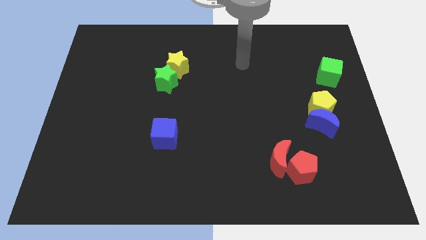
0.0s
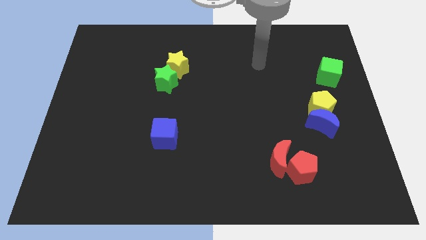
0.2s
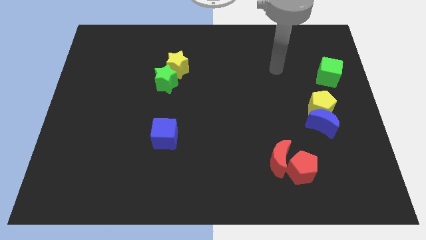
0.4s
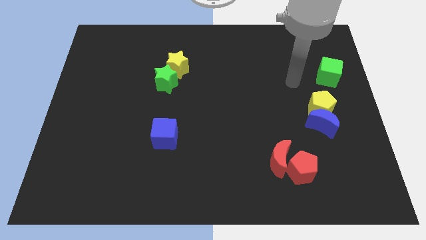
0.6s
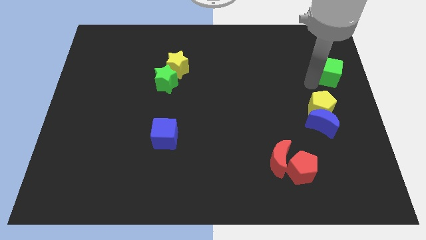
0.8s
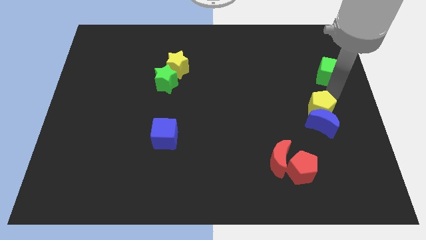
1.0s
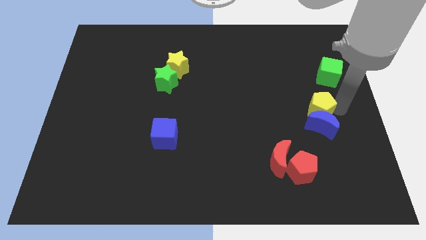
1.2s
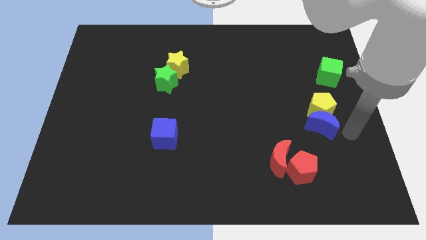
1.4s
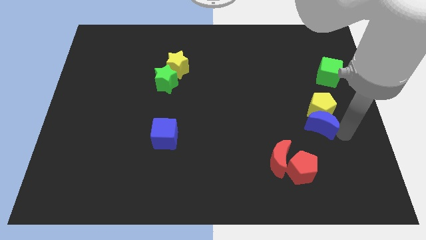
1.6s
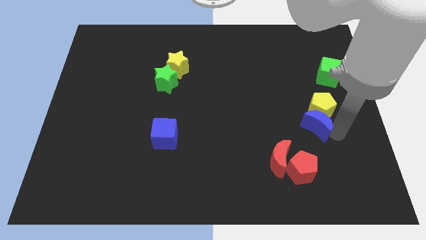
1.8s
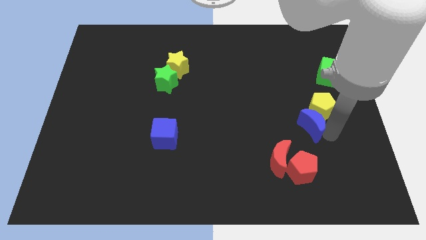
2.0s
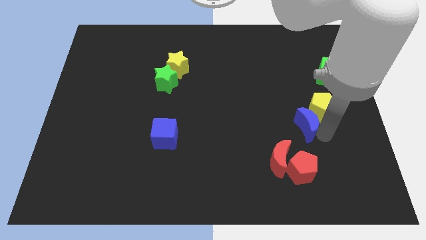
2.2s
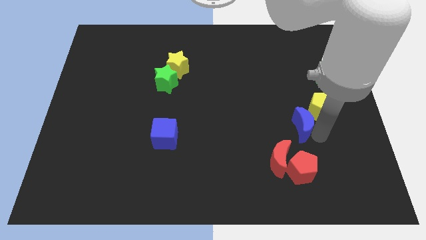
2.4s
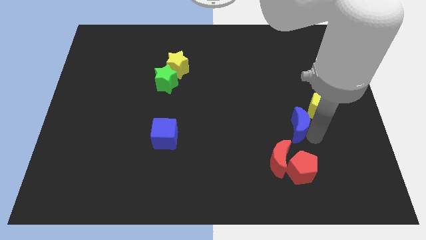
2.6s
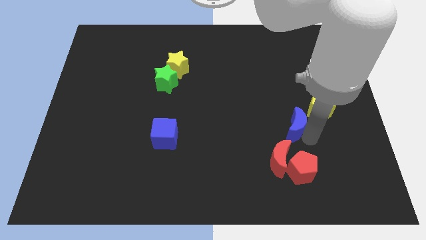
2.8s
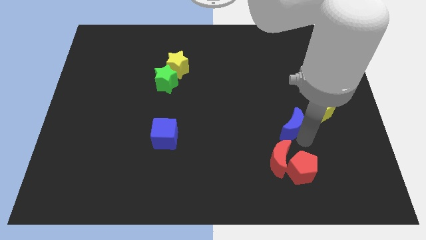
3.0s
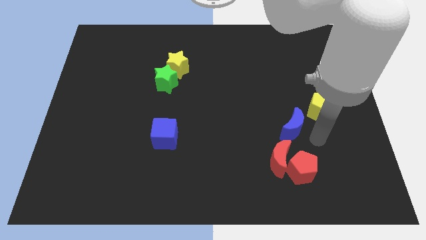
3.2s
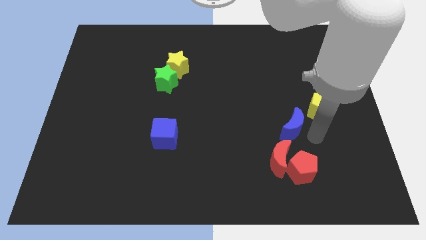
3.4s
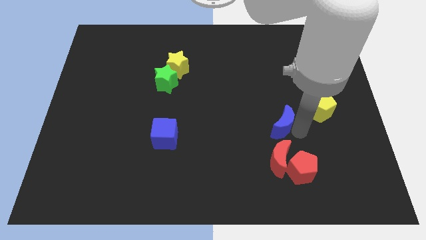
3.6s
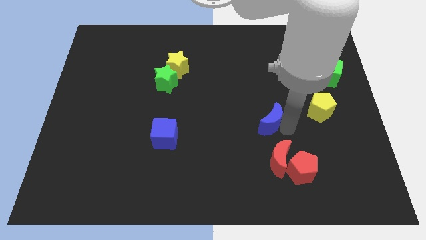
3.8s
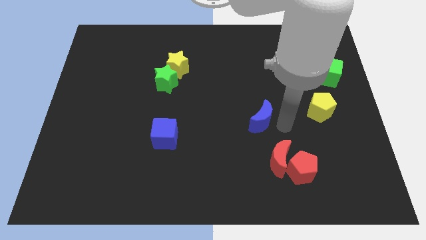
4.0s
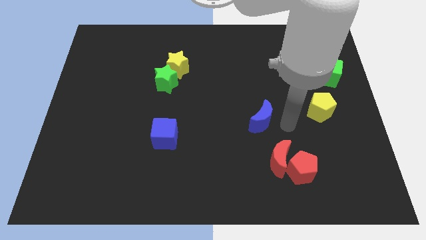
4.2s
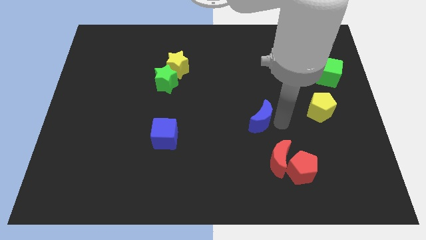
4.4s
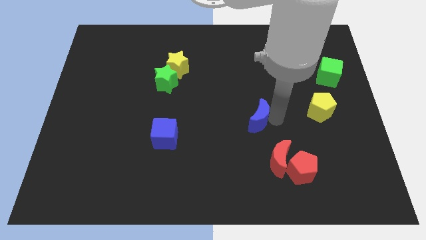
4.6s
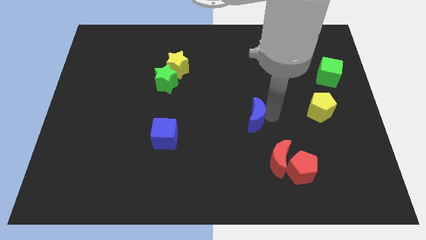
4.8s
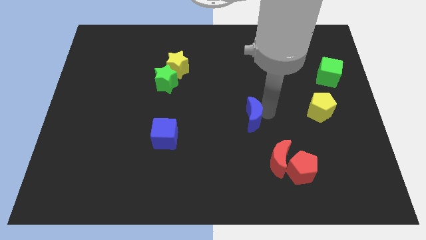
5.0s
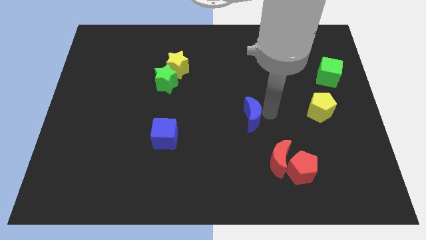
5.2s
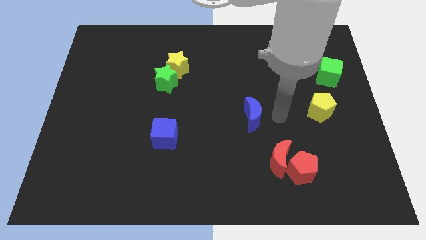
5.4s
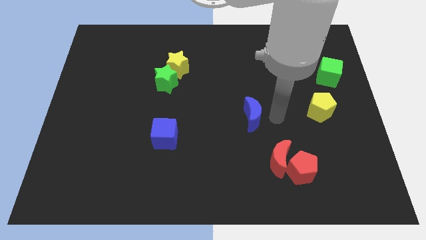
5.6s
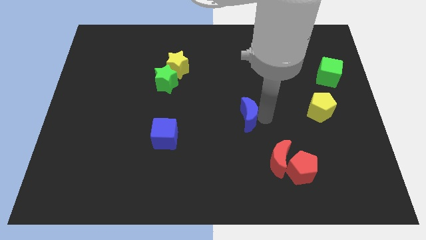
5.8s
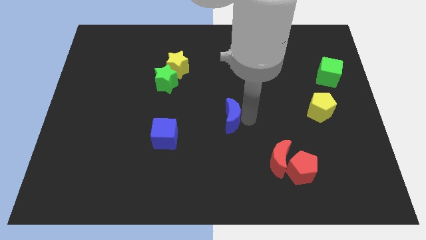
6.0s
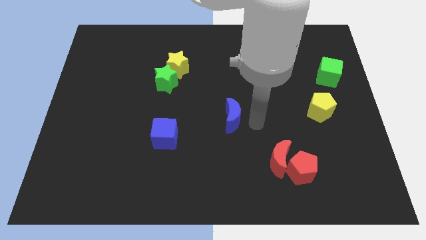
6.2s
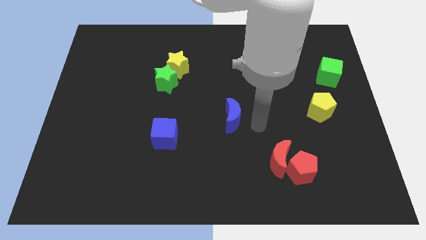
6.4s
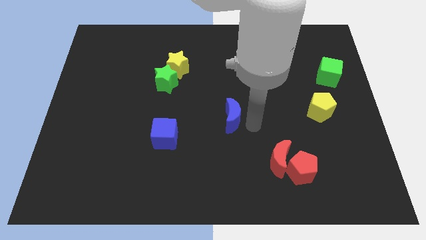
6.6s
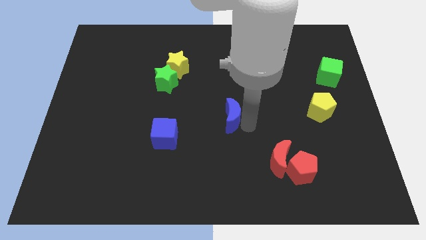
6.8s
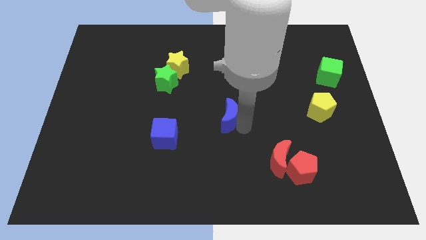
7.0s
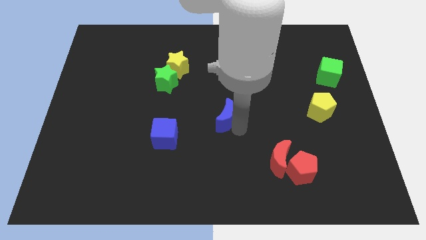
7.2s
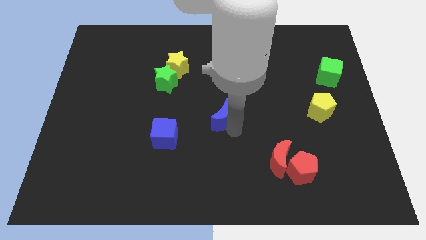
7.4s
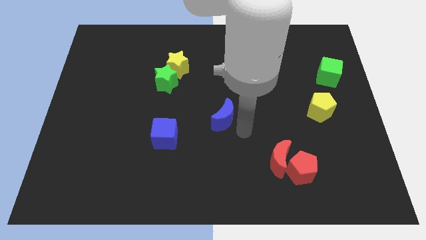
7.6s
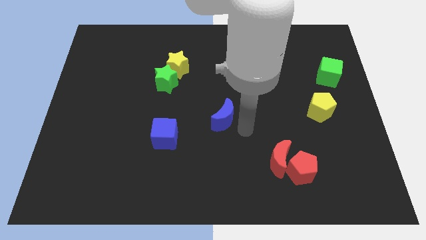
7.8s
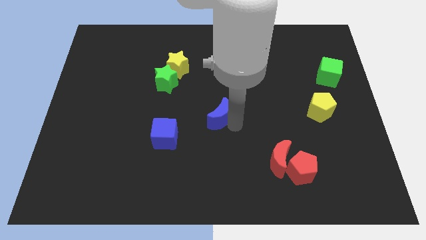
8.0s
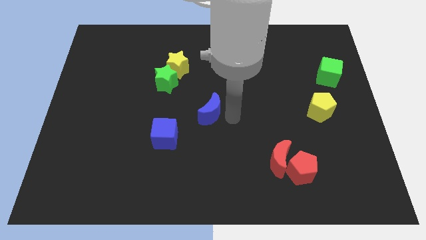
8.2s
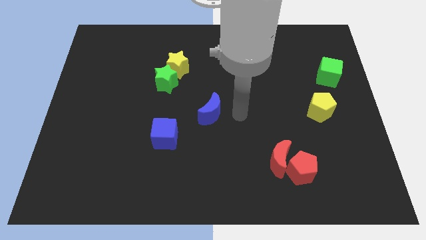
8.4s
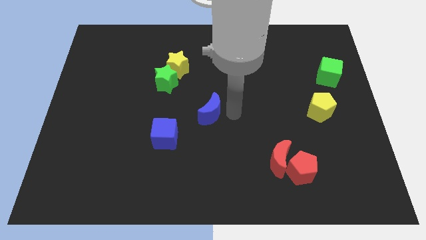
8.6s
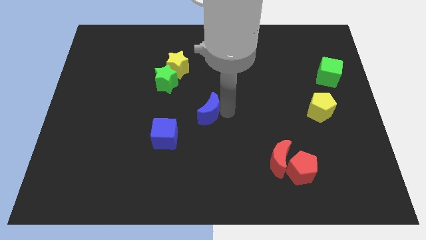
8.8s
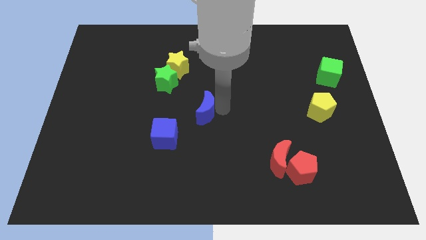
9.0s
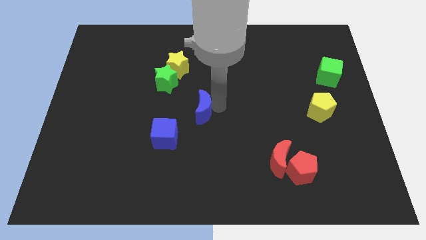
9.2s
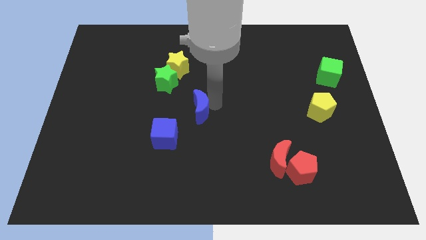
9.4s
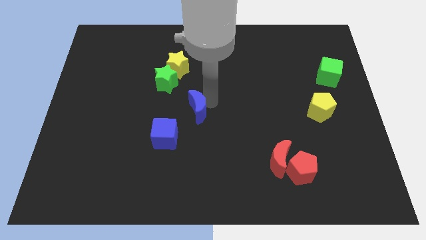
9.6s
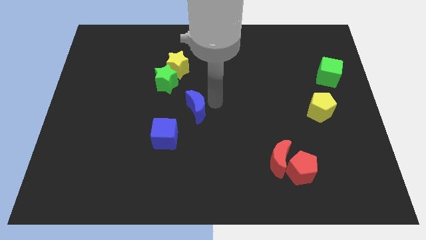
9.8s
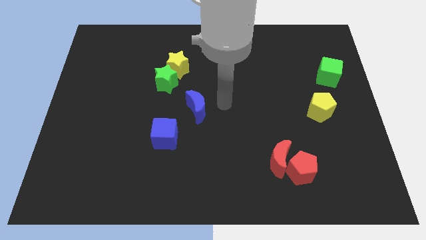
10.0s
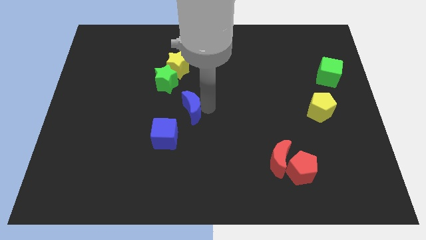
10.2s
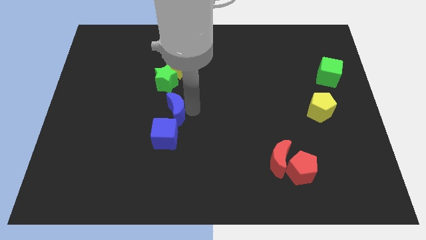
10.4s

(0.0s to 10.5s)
put the blue moon to the bottom side of the green star

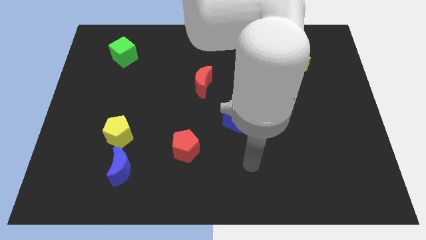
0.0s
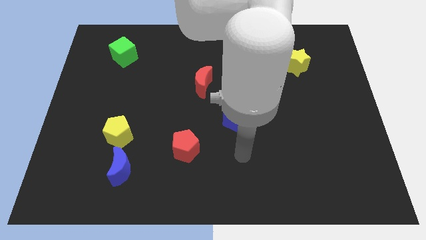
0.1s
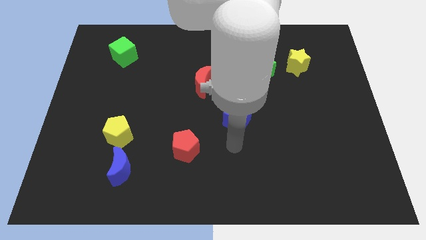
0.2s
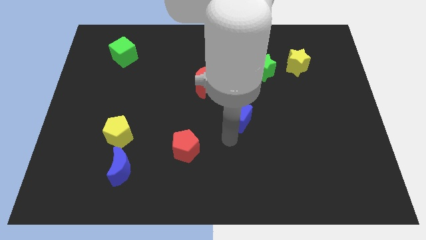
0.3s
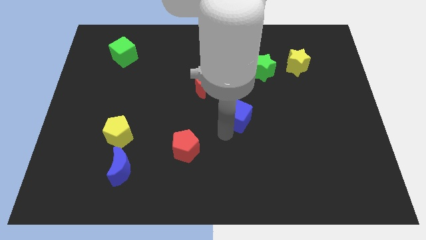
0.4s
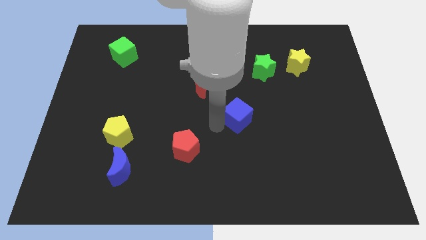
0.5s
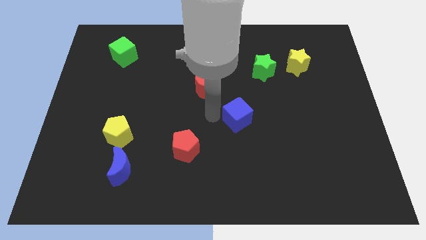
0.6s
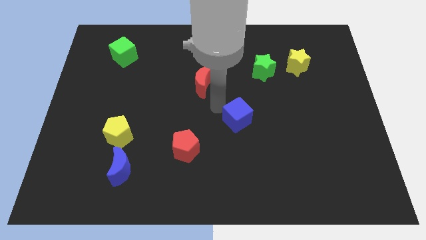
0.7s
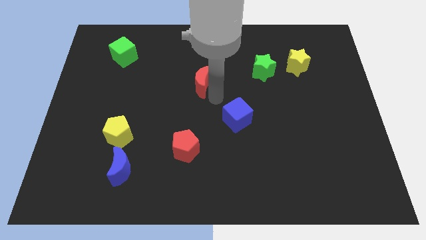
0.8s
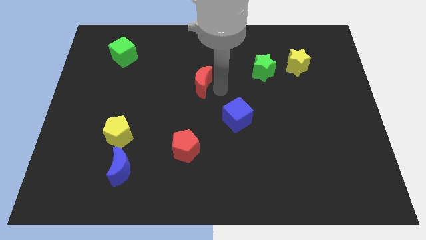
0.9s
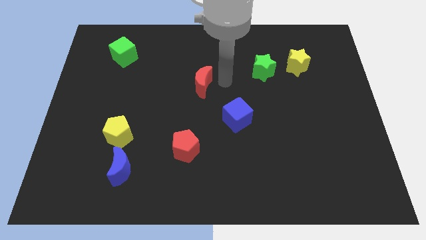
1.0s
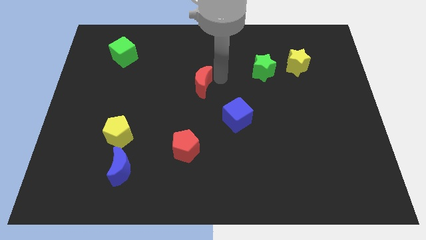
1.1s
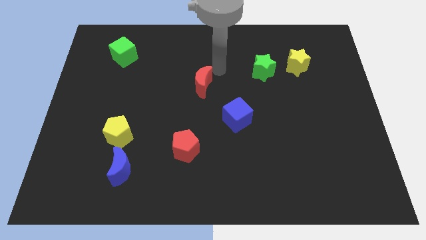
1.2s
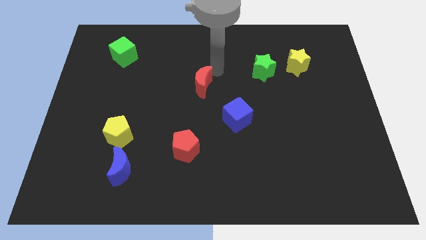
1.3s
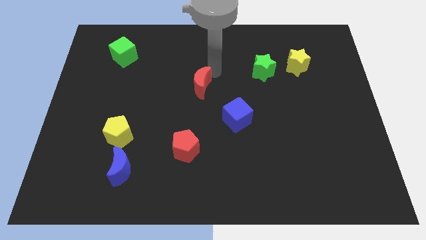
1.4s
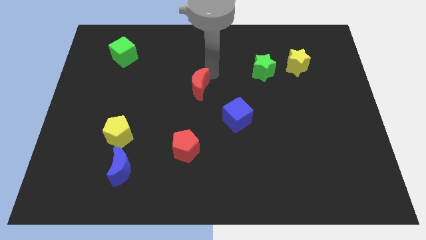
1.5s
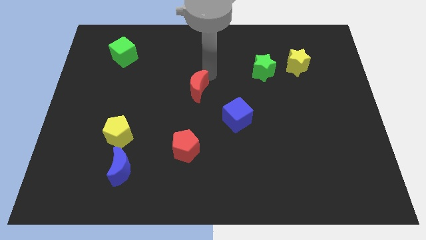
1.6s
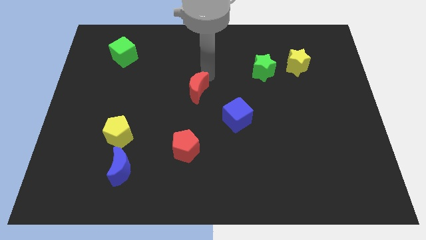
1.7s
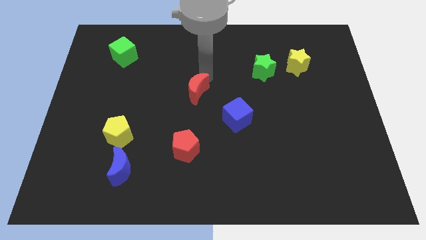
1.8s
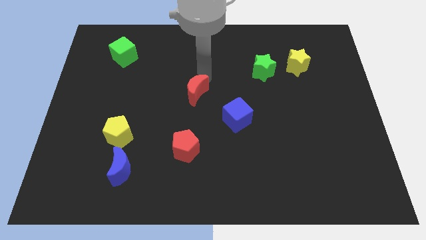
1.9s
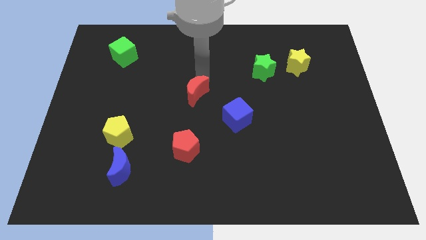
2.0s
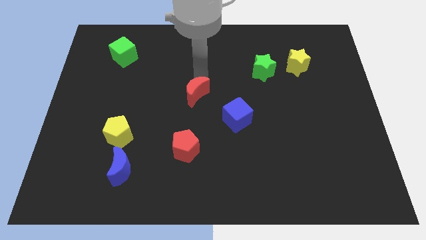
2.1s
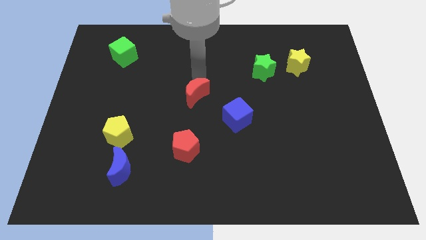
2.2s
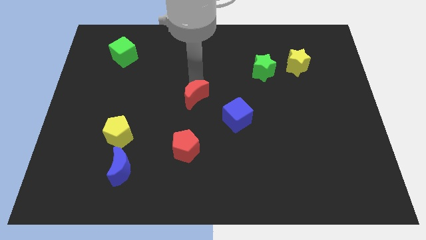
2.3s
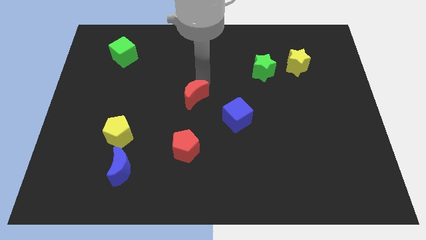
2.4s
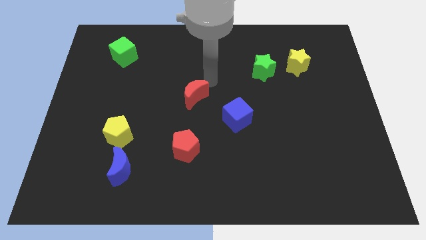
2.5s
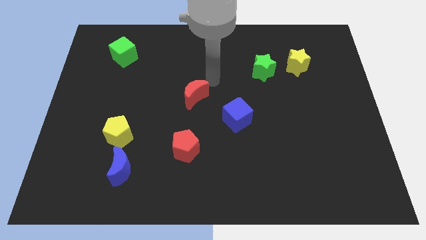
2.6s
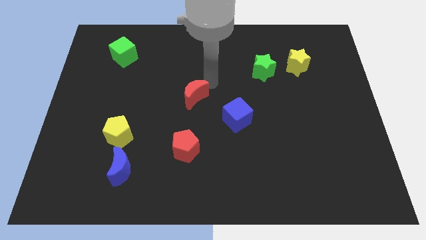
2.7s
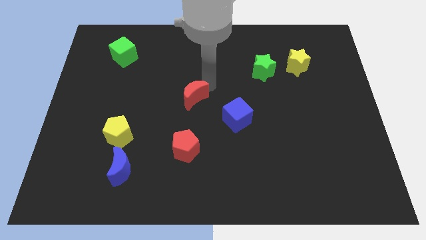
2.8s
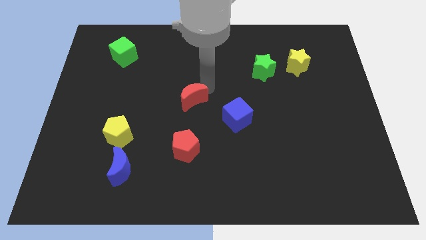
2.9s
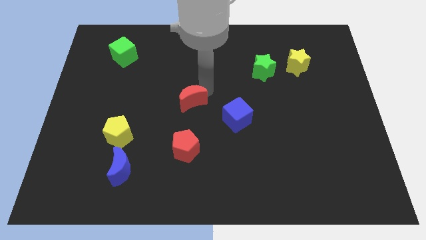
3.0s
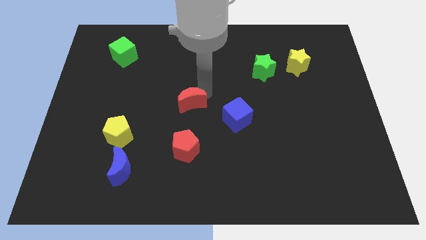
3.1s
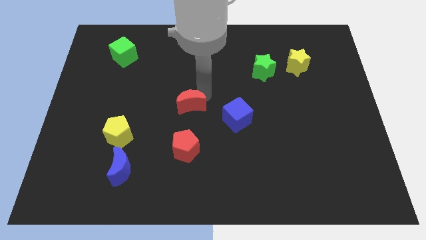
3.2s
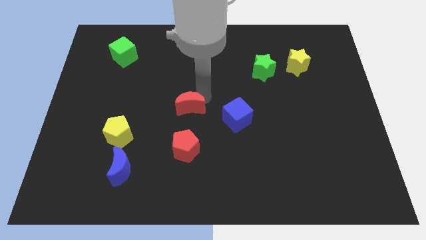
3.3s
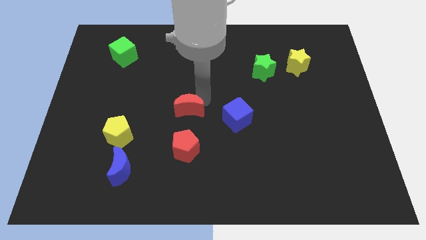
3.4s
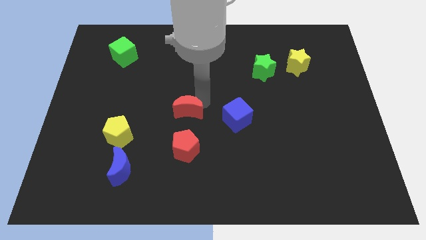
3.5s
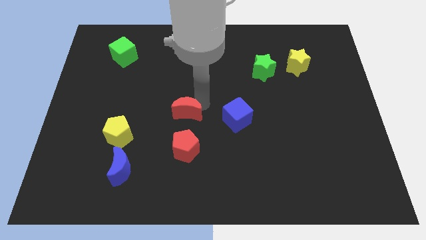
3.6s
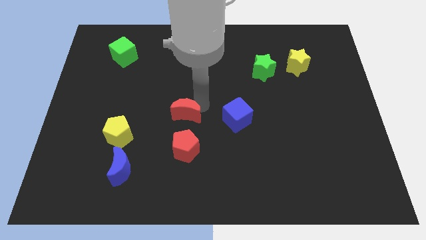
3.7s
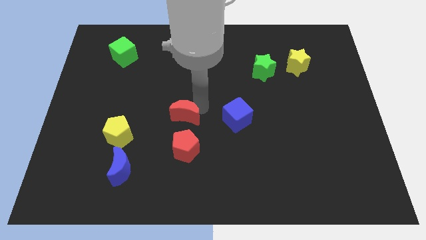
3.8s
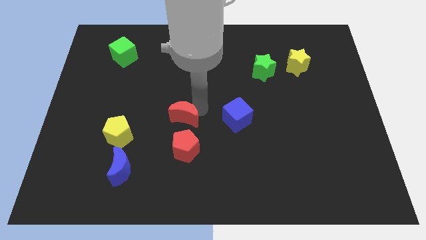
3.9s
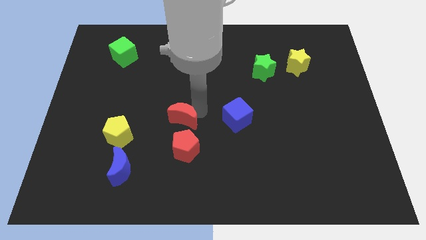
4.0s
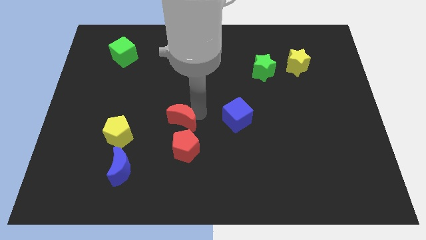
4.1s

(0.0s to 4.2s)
push the red moon right of the yellow pentagon
